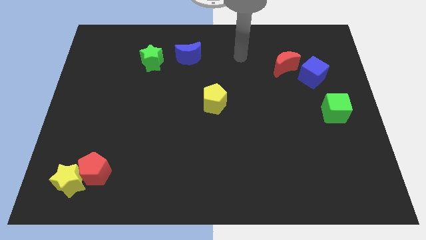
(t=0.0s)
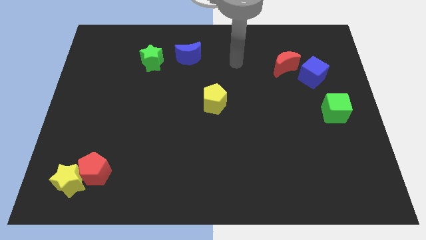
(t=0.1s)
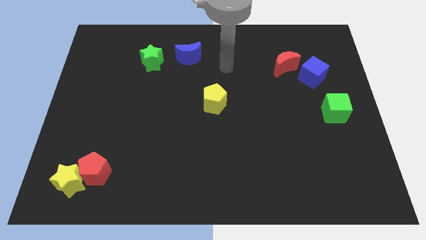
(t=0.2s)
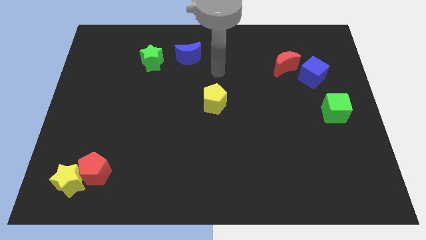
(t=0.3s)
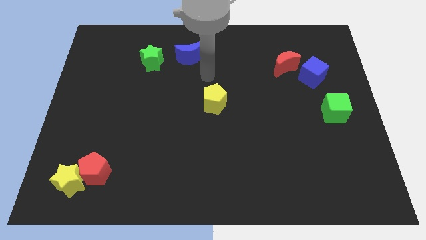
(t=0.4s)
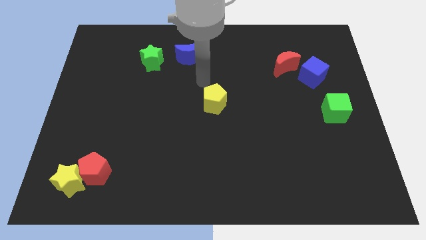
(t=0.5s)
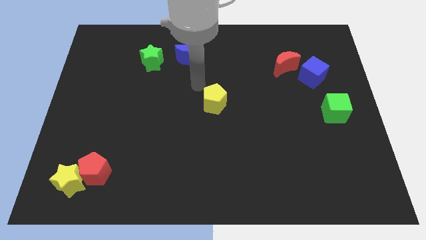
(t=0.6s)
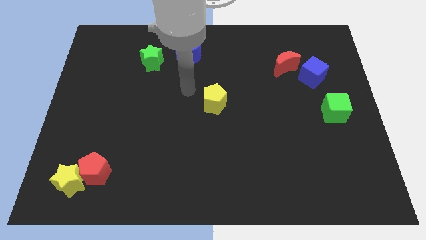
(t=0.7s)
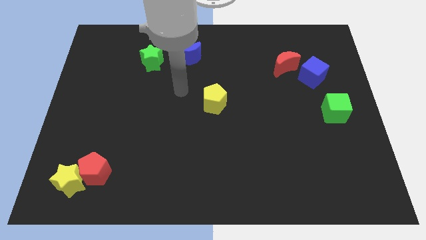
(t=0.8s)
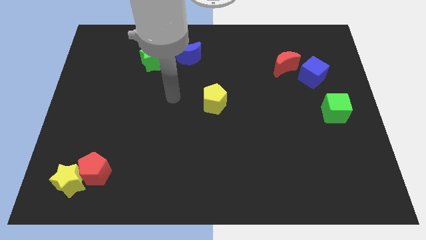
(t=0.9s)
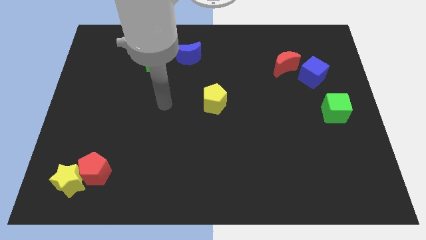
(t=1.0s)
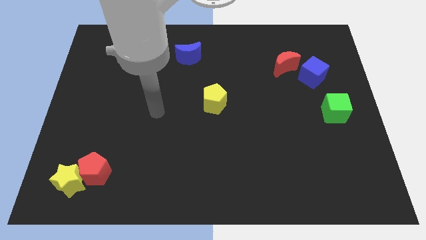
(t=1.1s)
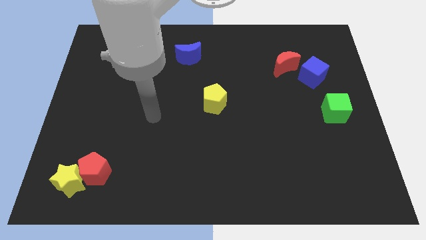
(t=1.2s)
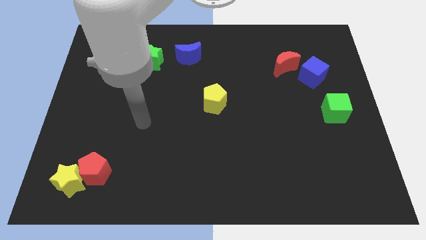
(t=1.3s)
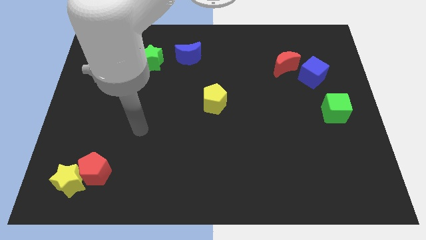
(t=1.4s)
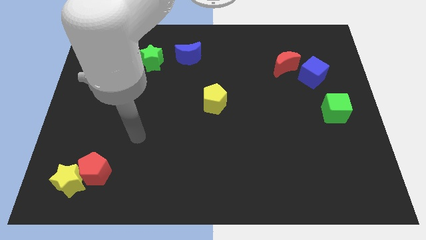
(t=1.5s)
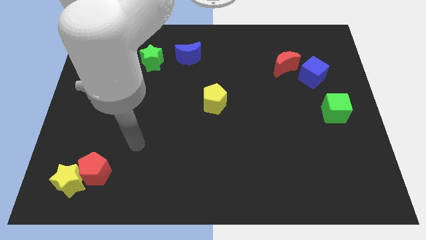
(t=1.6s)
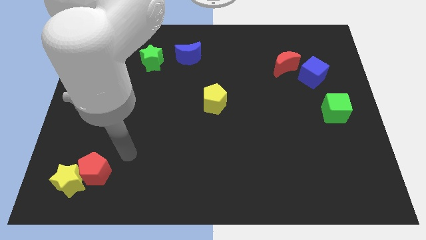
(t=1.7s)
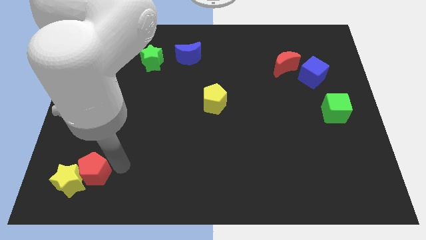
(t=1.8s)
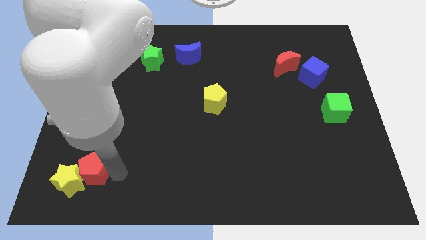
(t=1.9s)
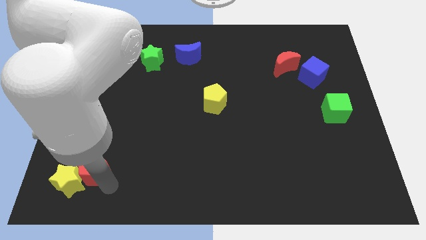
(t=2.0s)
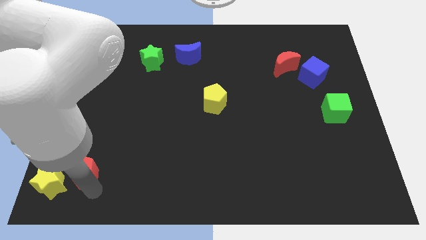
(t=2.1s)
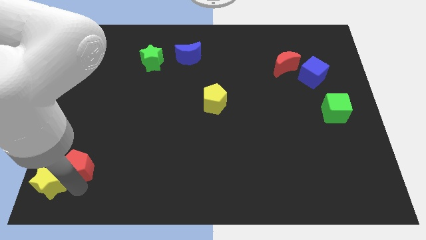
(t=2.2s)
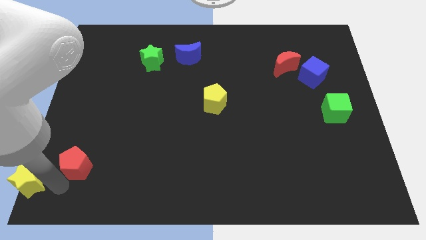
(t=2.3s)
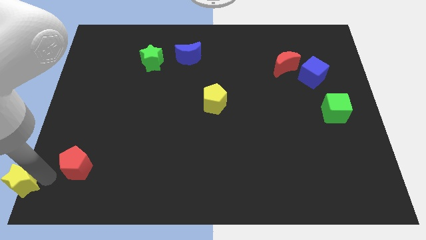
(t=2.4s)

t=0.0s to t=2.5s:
pull the red pentagon apart from the yellow star

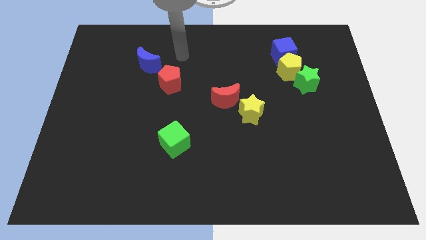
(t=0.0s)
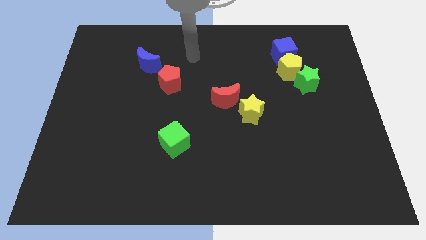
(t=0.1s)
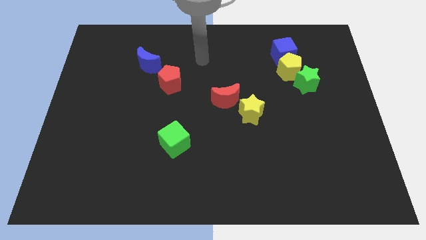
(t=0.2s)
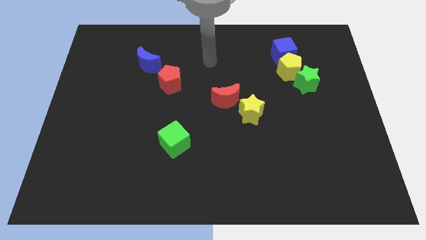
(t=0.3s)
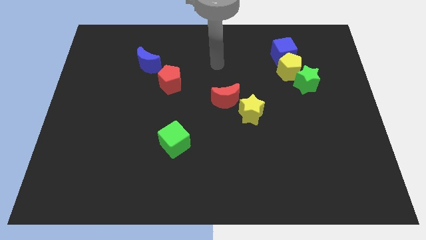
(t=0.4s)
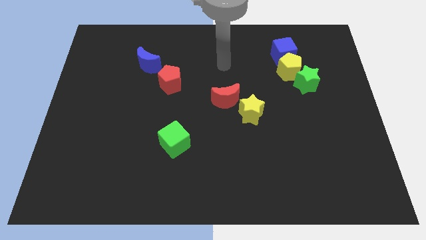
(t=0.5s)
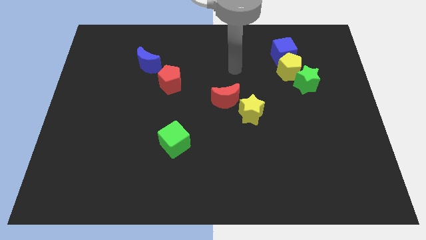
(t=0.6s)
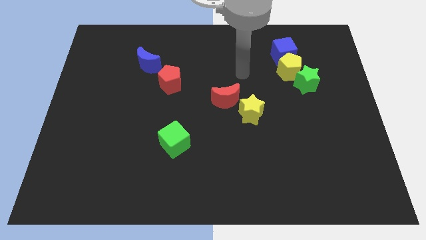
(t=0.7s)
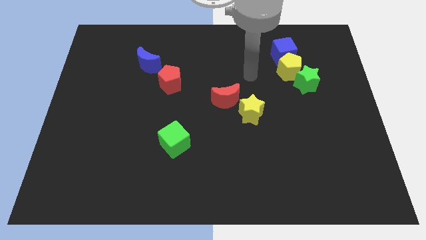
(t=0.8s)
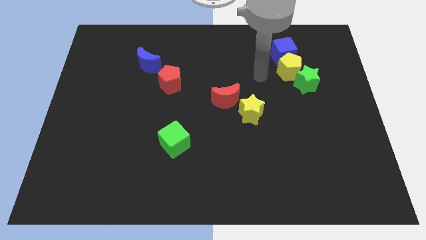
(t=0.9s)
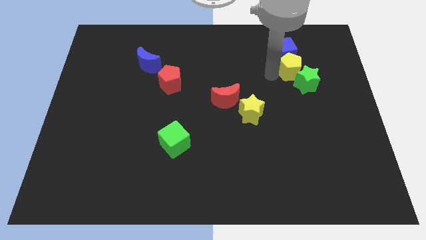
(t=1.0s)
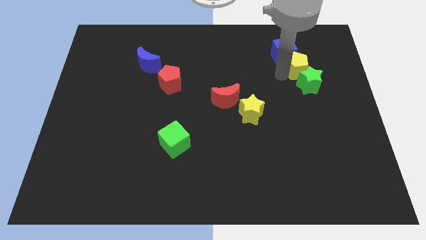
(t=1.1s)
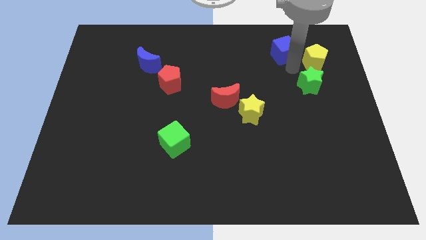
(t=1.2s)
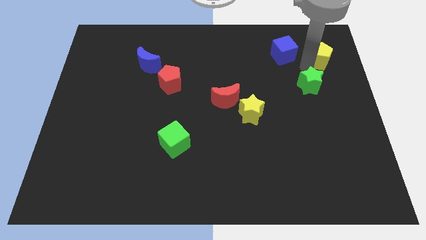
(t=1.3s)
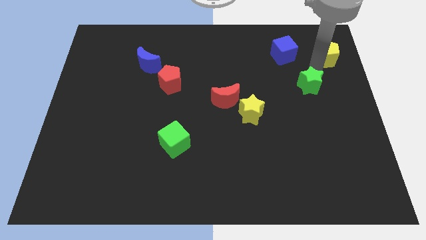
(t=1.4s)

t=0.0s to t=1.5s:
pull the green star apart from the yellow pentagon

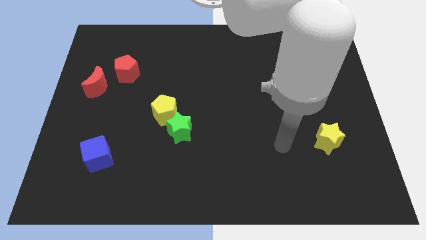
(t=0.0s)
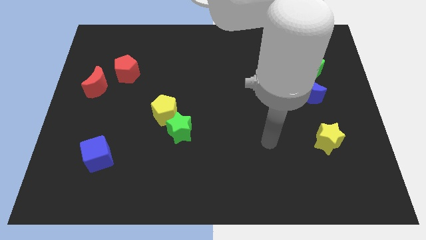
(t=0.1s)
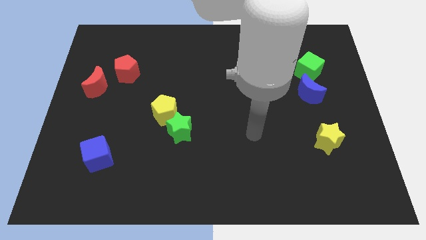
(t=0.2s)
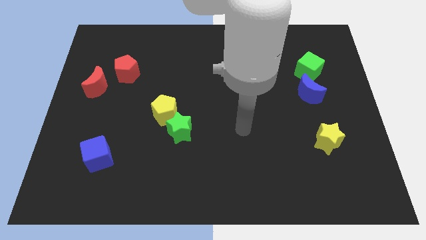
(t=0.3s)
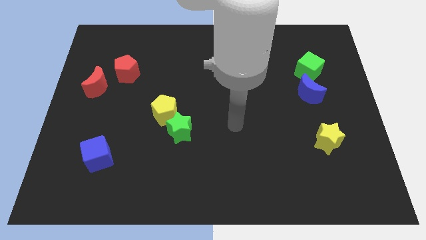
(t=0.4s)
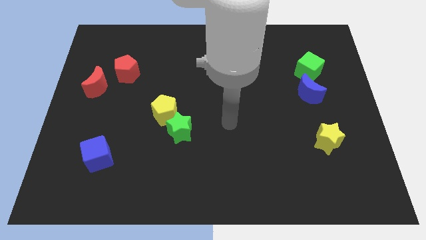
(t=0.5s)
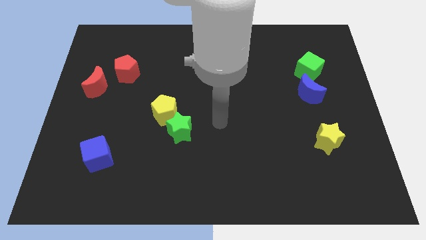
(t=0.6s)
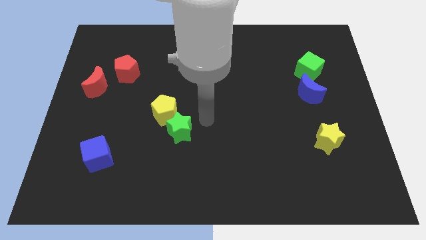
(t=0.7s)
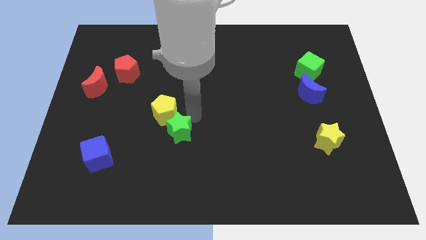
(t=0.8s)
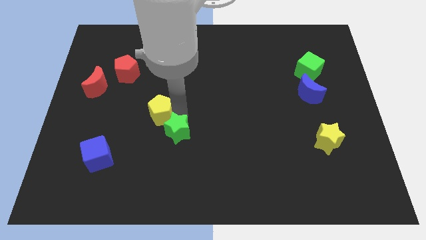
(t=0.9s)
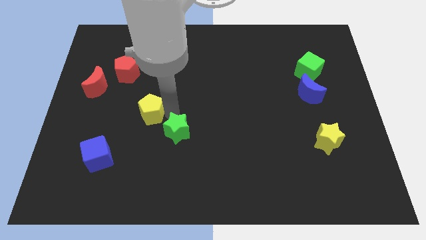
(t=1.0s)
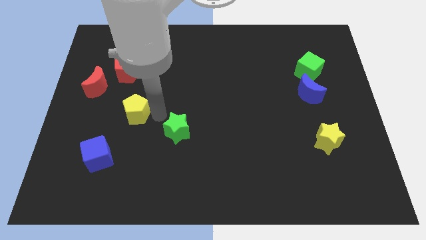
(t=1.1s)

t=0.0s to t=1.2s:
move the green star away from the yellow pentagon

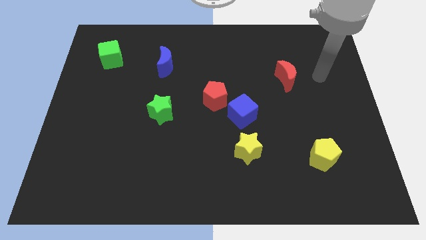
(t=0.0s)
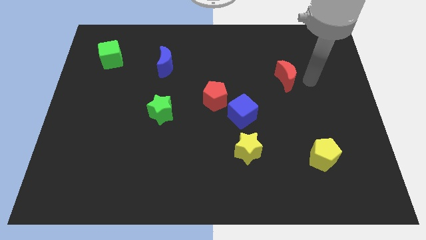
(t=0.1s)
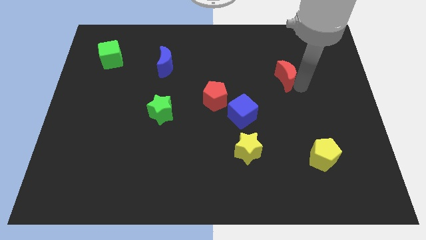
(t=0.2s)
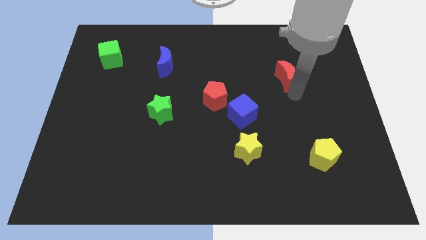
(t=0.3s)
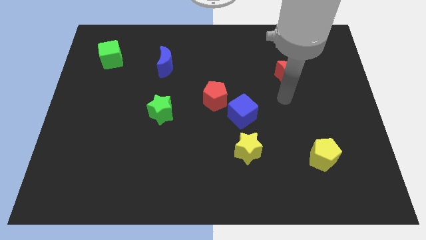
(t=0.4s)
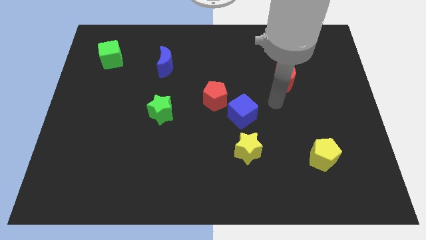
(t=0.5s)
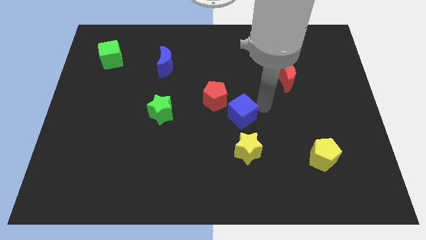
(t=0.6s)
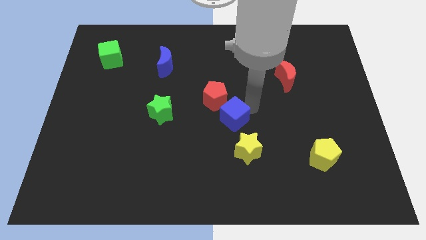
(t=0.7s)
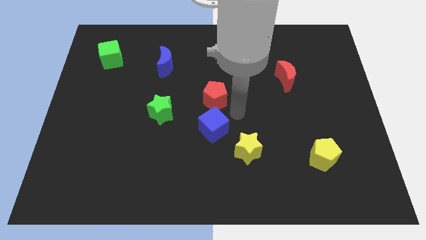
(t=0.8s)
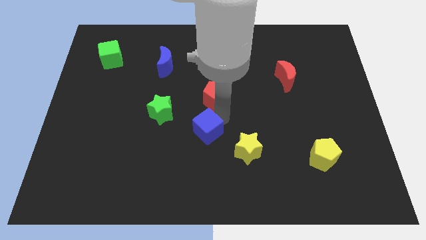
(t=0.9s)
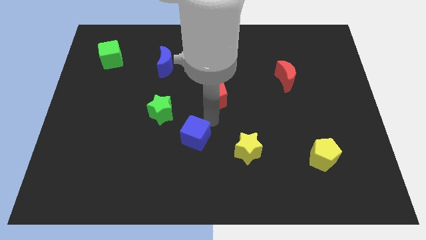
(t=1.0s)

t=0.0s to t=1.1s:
pull the red pentagon apart from the blue cube

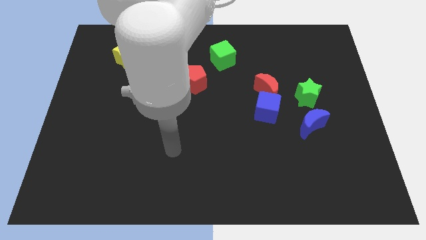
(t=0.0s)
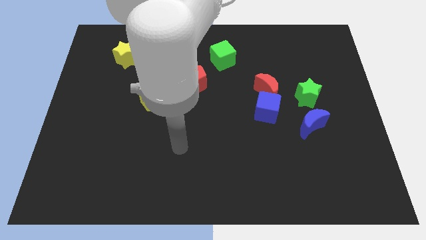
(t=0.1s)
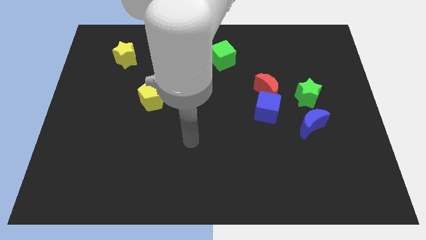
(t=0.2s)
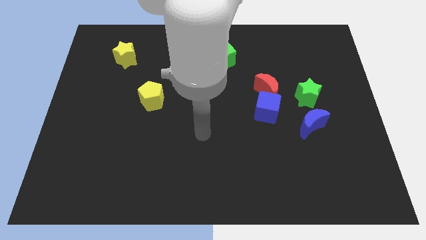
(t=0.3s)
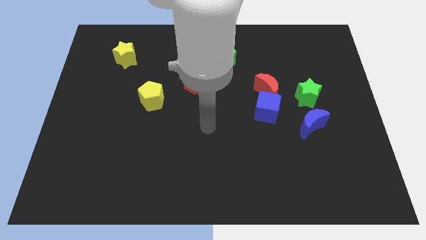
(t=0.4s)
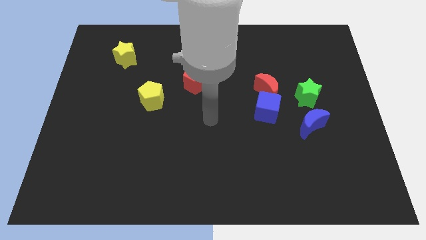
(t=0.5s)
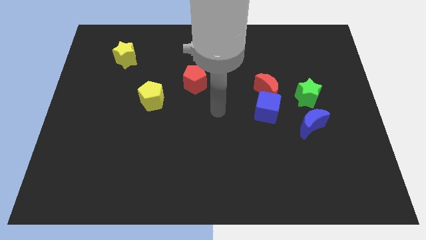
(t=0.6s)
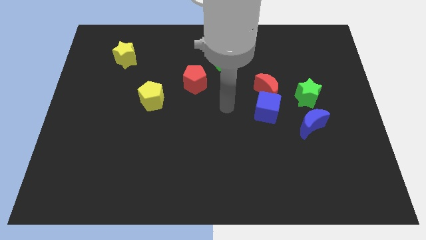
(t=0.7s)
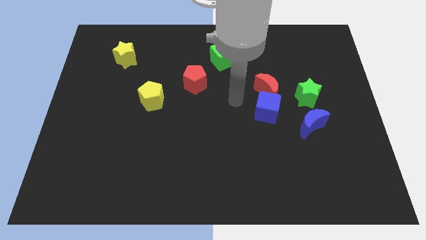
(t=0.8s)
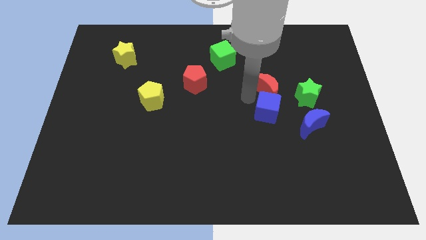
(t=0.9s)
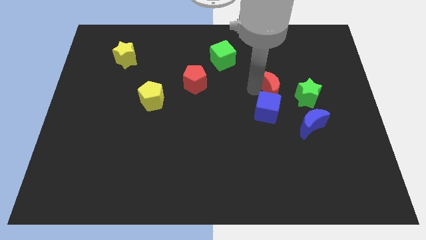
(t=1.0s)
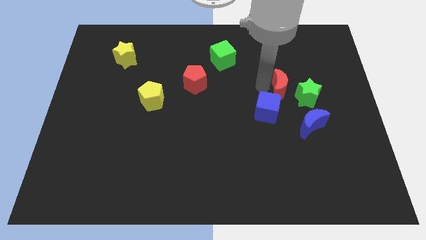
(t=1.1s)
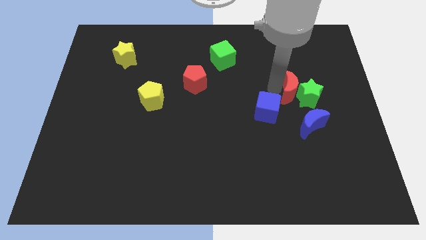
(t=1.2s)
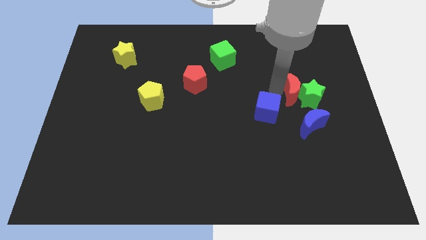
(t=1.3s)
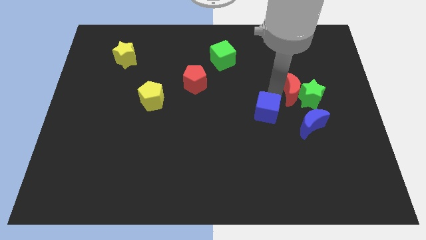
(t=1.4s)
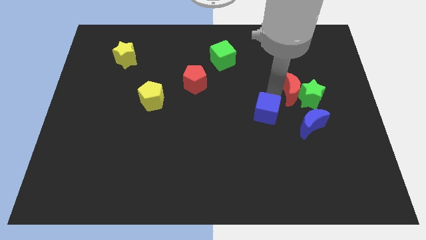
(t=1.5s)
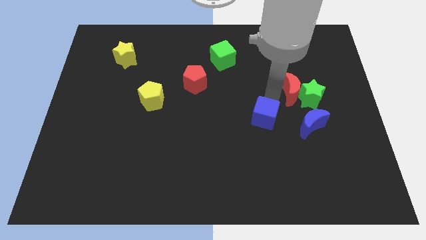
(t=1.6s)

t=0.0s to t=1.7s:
separate the blue cube from the red moon

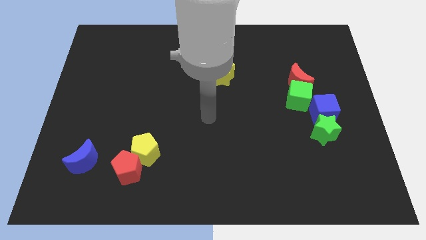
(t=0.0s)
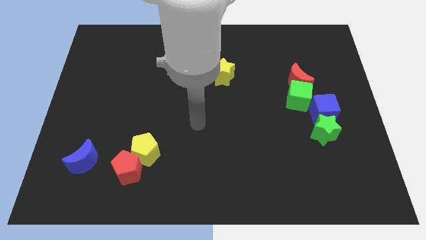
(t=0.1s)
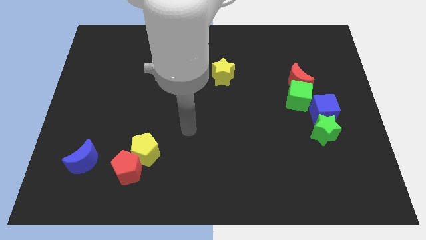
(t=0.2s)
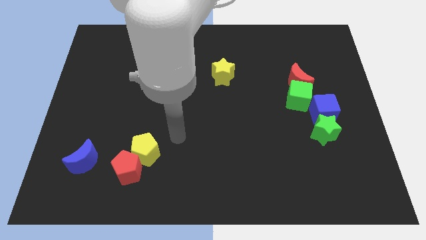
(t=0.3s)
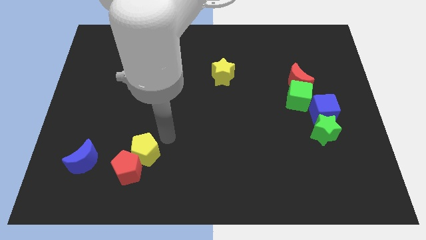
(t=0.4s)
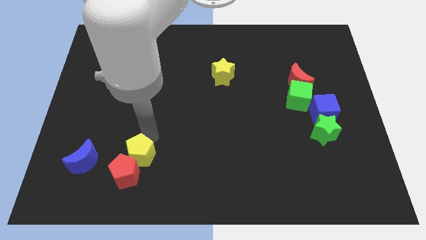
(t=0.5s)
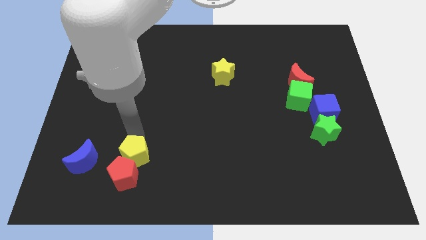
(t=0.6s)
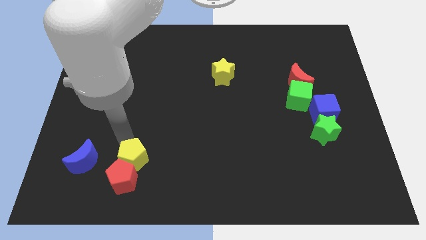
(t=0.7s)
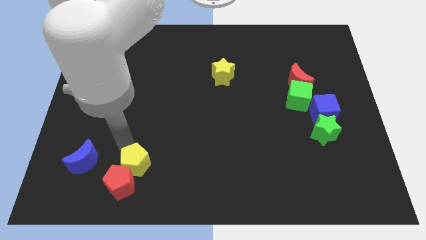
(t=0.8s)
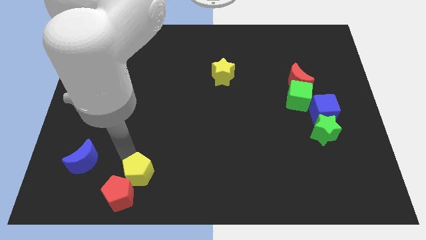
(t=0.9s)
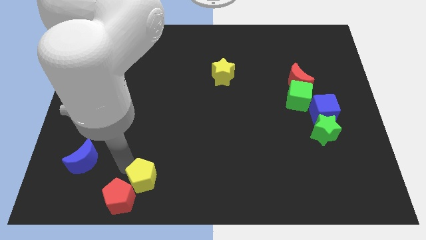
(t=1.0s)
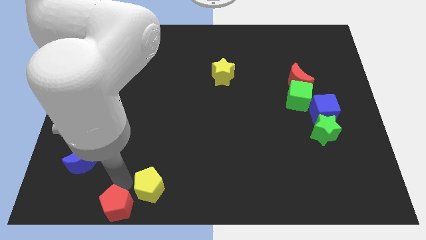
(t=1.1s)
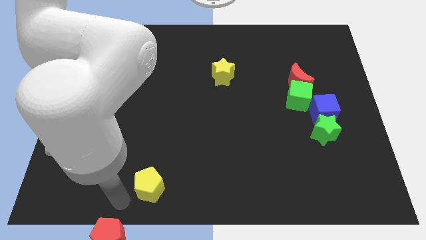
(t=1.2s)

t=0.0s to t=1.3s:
separate the yellow pentagon from the red pentagon

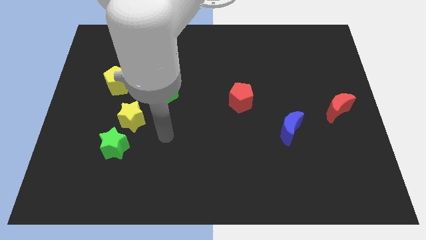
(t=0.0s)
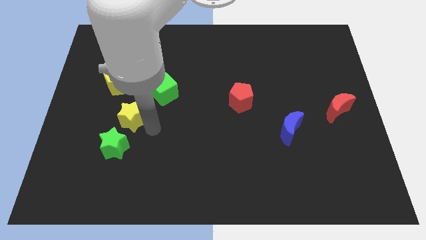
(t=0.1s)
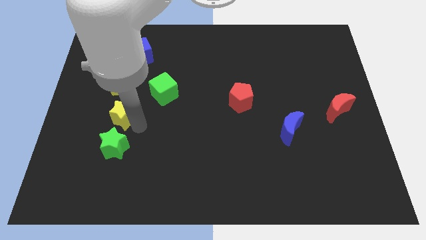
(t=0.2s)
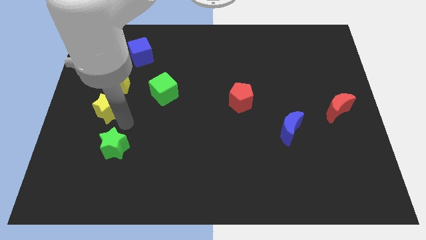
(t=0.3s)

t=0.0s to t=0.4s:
move the green star away from the yellow star
